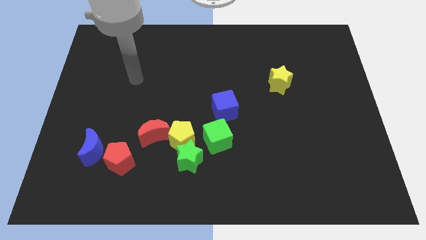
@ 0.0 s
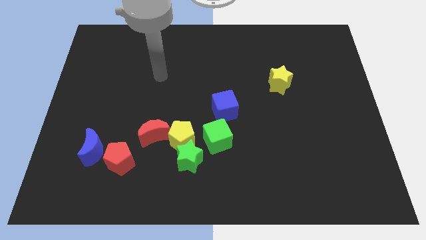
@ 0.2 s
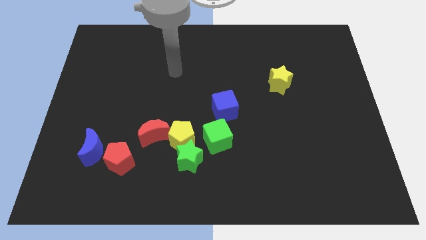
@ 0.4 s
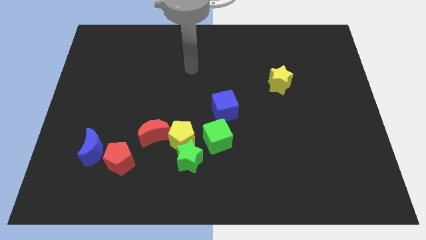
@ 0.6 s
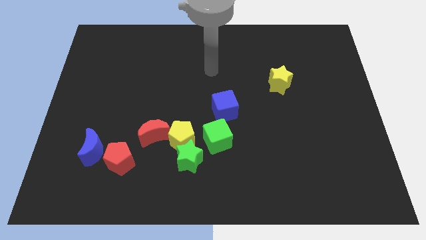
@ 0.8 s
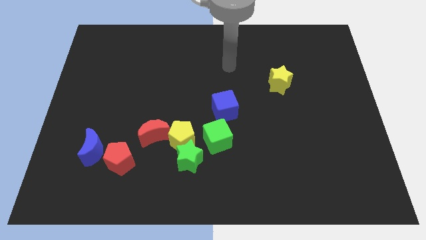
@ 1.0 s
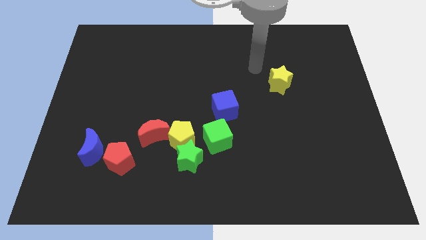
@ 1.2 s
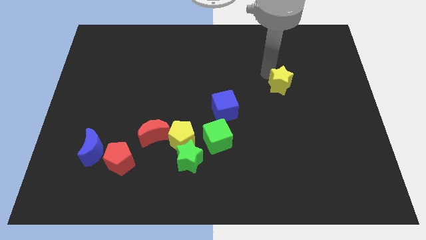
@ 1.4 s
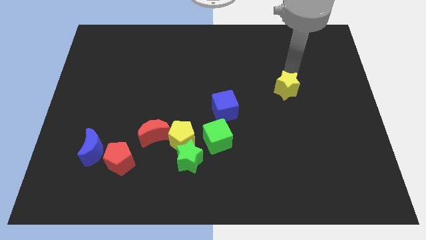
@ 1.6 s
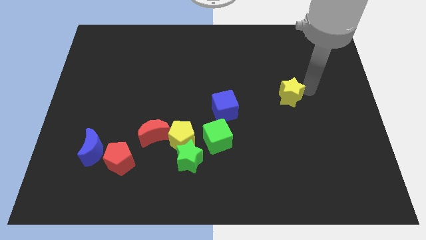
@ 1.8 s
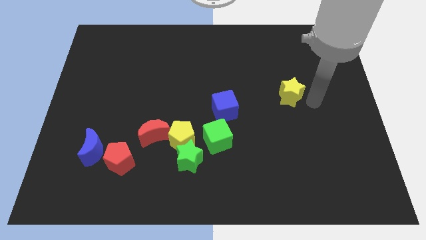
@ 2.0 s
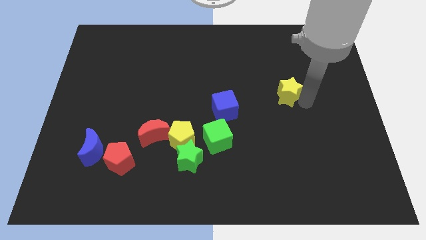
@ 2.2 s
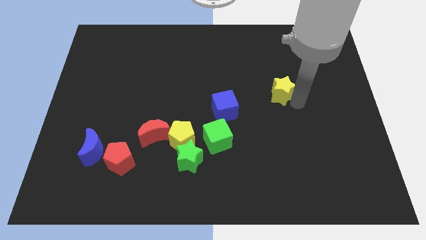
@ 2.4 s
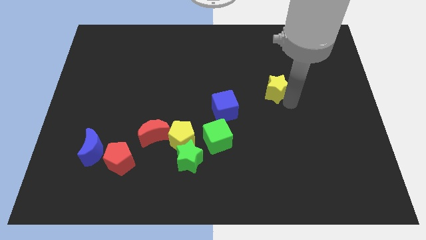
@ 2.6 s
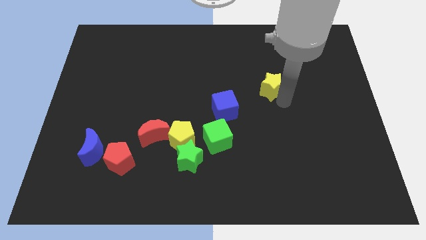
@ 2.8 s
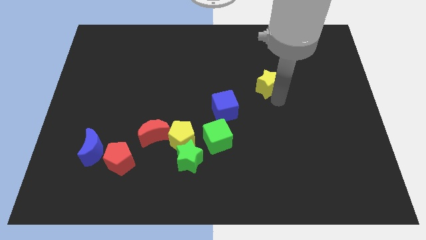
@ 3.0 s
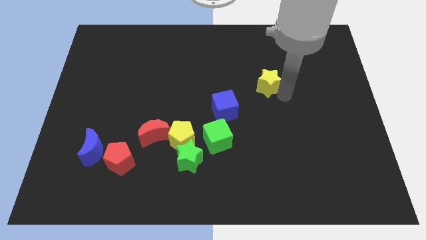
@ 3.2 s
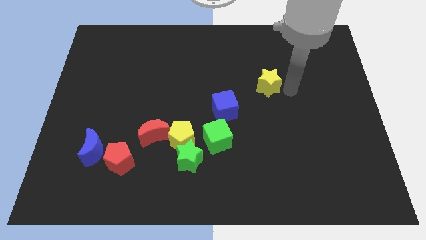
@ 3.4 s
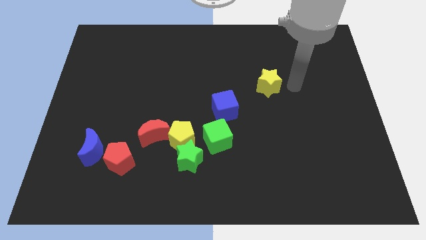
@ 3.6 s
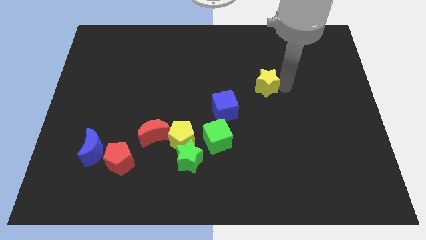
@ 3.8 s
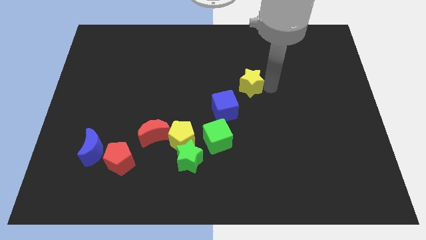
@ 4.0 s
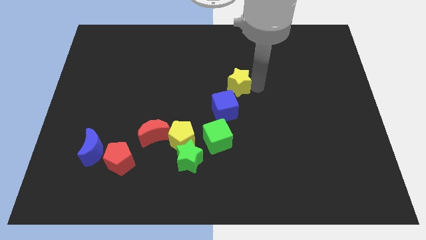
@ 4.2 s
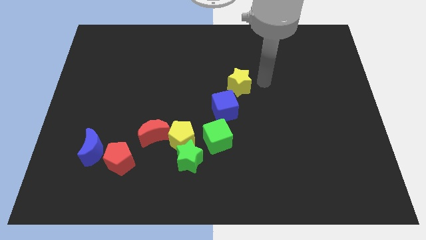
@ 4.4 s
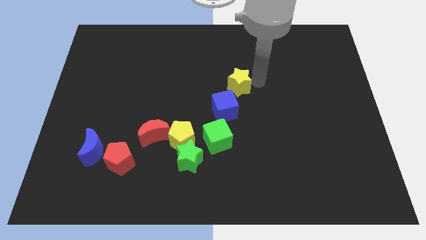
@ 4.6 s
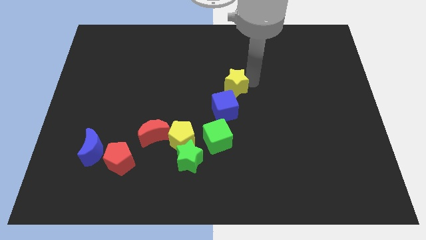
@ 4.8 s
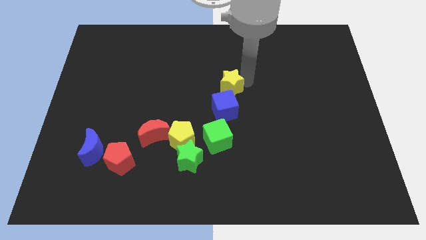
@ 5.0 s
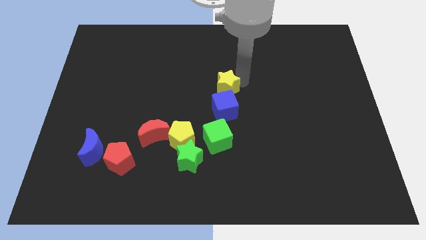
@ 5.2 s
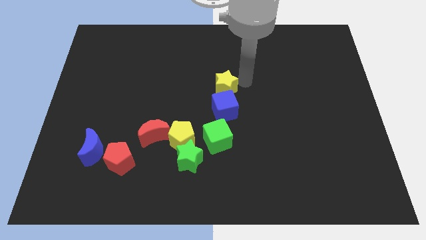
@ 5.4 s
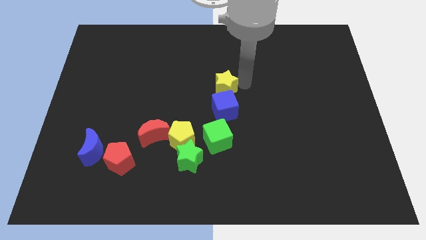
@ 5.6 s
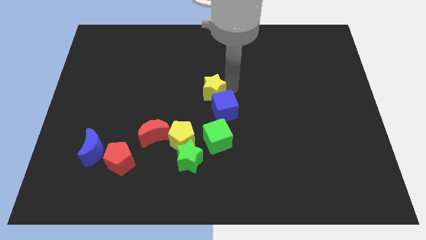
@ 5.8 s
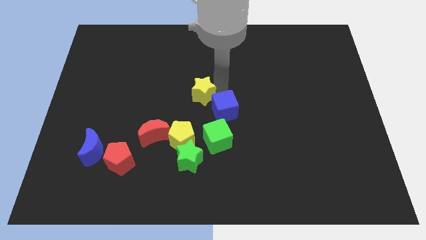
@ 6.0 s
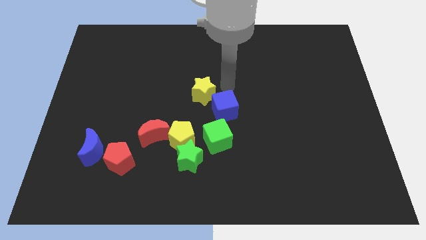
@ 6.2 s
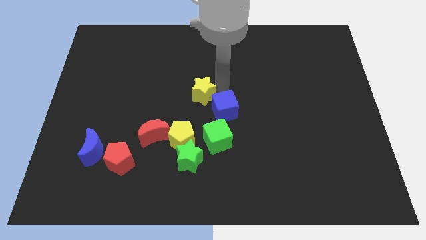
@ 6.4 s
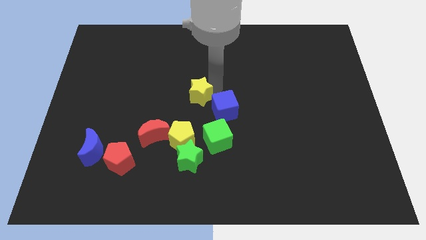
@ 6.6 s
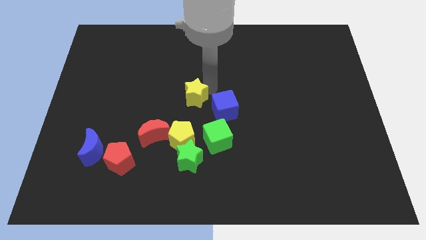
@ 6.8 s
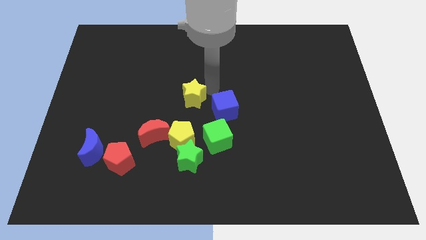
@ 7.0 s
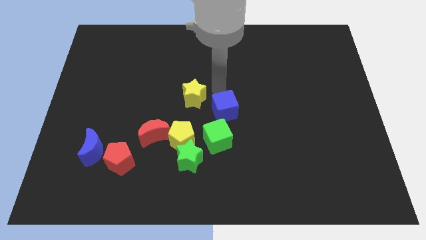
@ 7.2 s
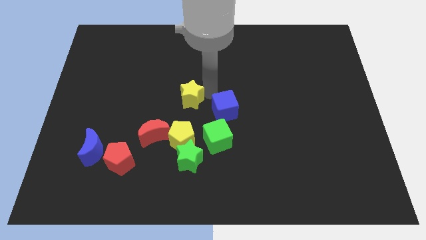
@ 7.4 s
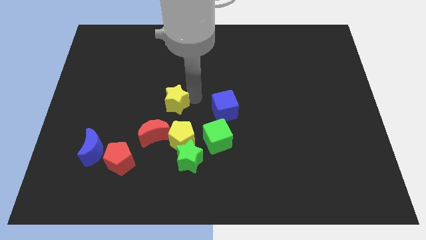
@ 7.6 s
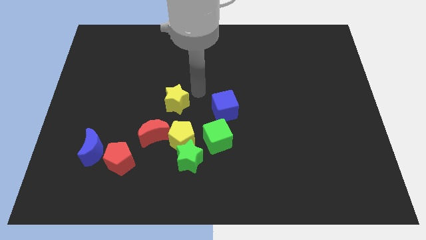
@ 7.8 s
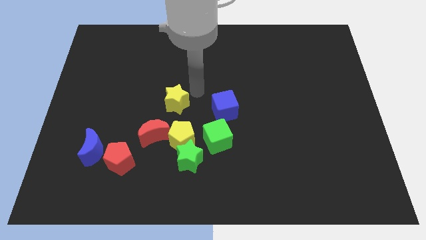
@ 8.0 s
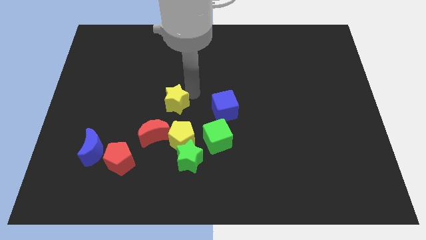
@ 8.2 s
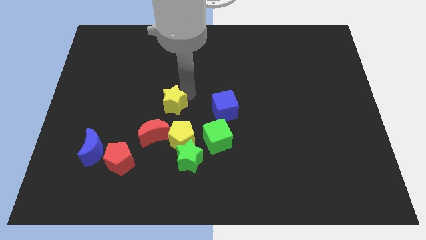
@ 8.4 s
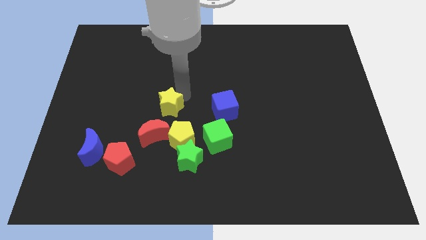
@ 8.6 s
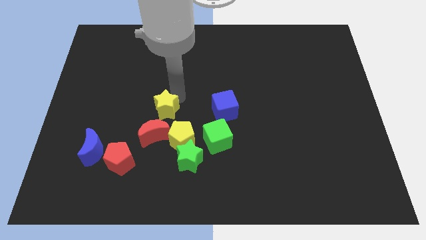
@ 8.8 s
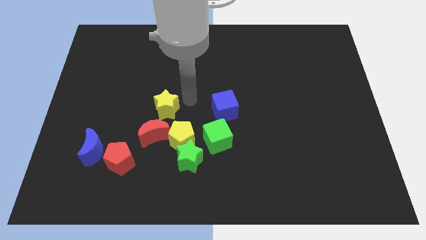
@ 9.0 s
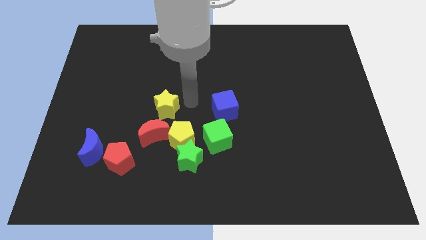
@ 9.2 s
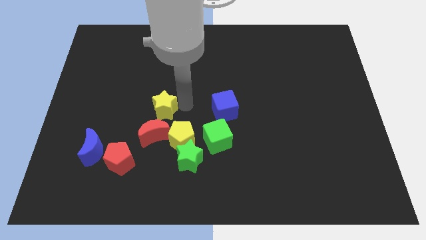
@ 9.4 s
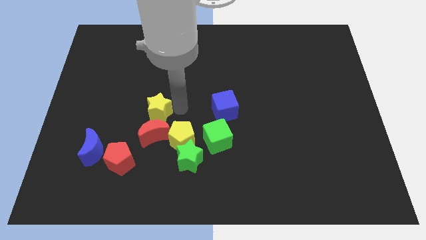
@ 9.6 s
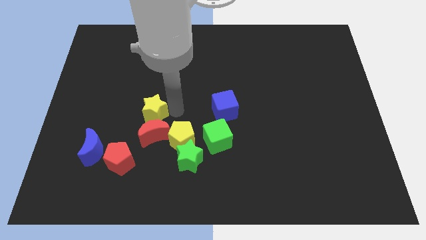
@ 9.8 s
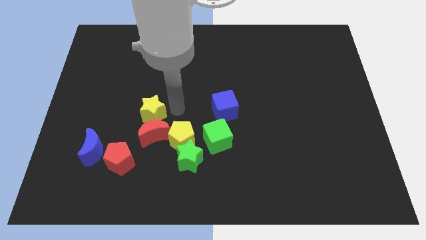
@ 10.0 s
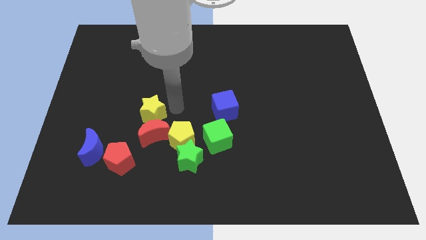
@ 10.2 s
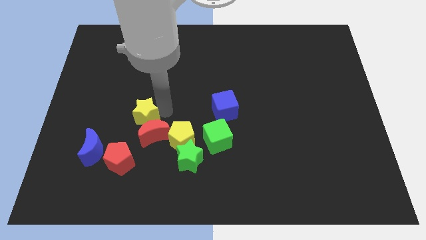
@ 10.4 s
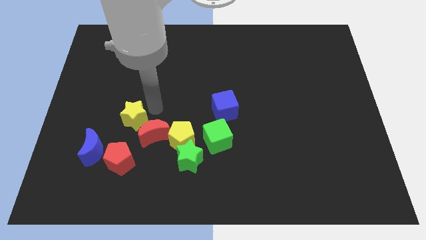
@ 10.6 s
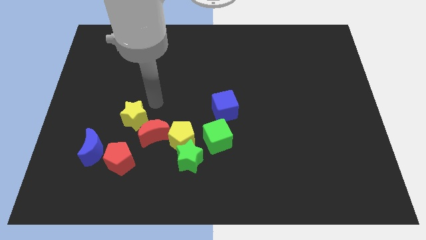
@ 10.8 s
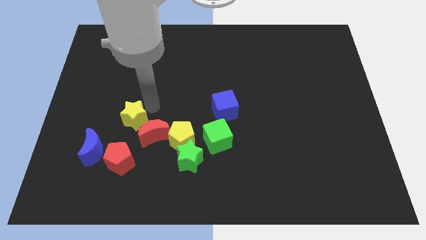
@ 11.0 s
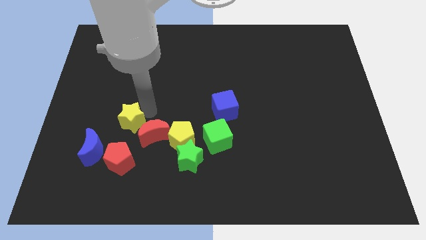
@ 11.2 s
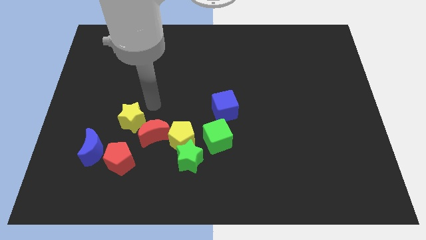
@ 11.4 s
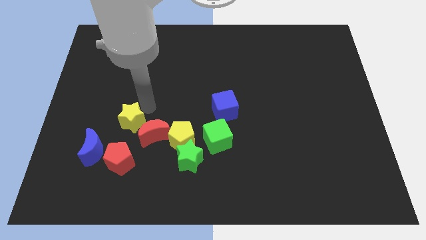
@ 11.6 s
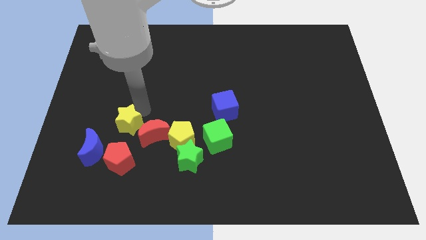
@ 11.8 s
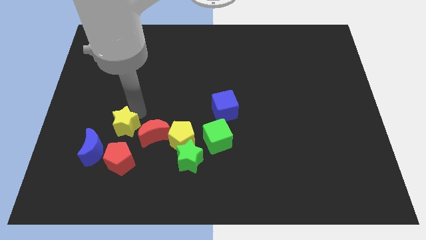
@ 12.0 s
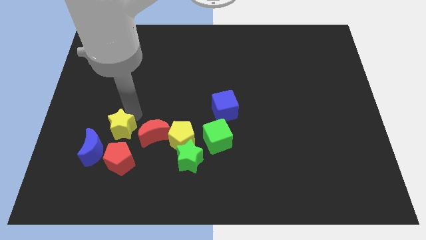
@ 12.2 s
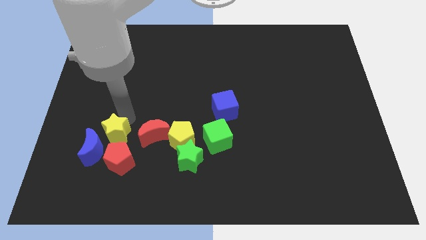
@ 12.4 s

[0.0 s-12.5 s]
put the yellow star to the blue moon
